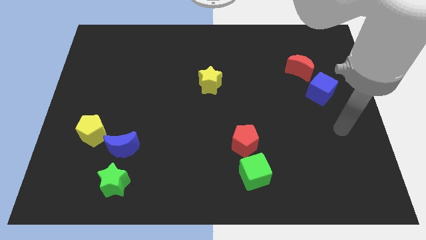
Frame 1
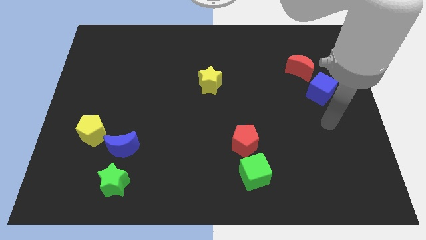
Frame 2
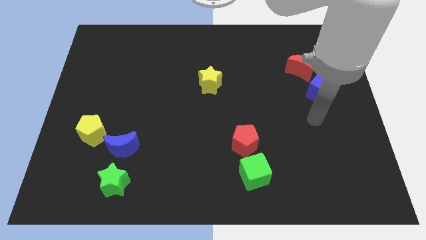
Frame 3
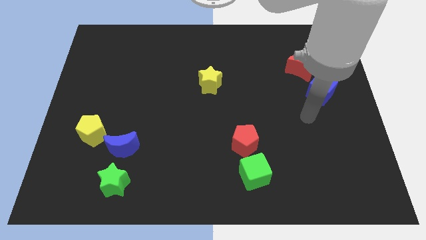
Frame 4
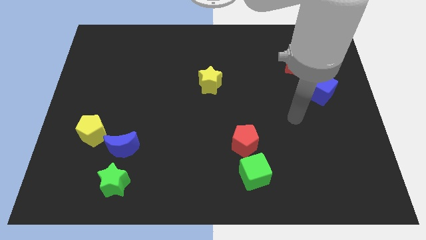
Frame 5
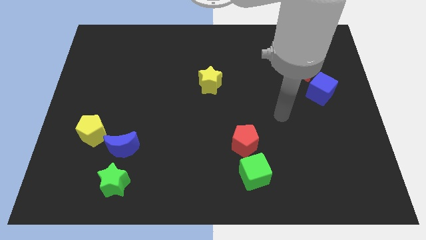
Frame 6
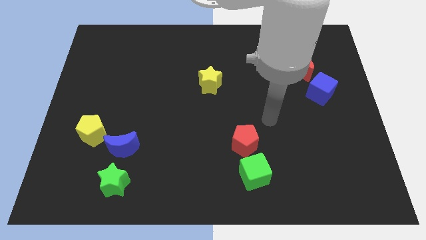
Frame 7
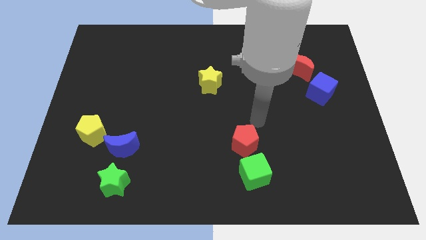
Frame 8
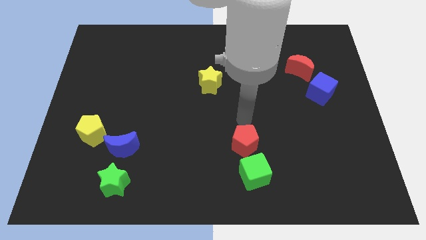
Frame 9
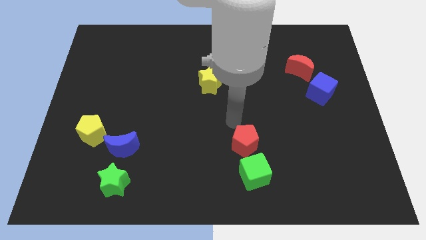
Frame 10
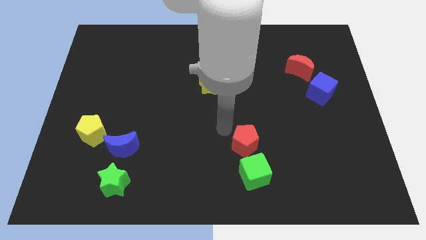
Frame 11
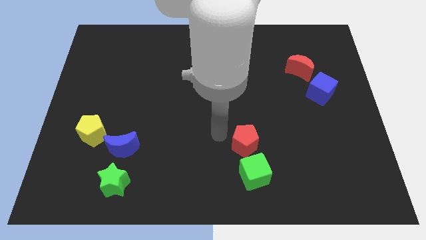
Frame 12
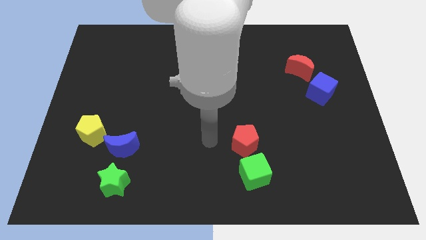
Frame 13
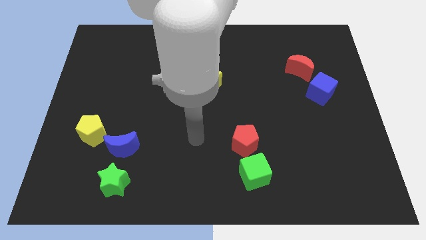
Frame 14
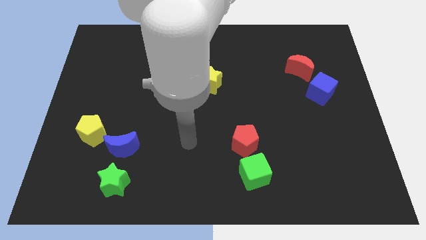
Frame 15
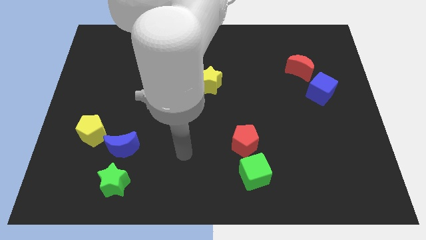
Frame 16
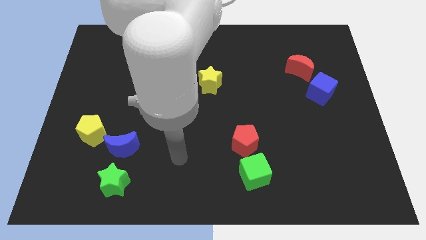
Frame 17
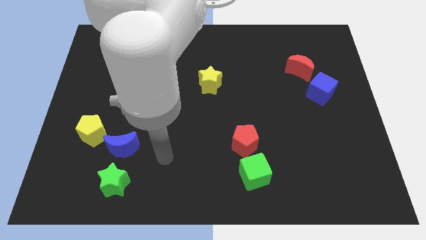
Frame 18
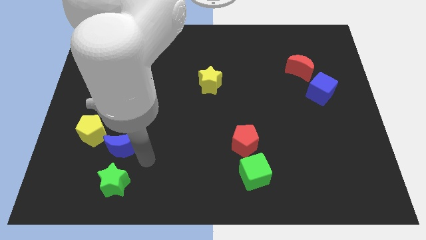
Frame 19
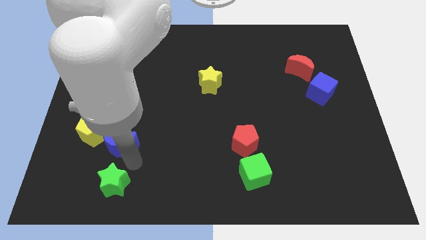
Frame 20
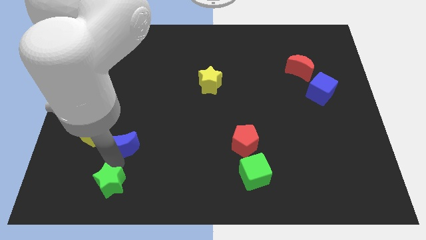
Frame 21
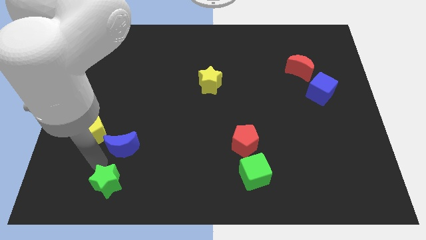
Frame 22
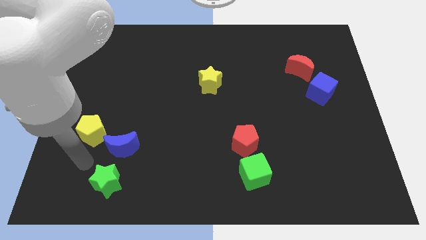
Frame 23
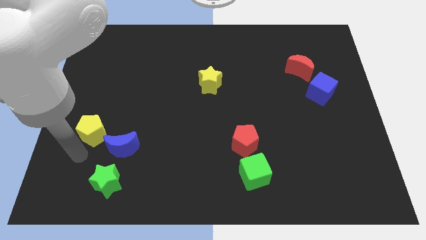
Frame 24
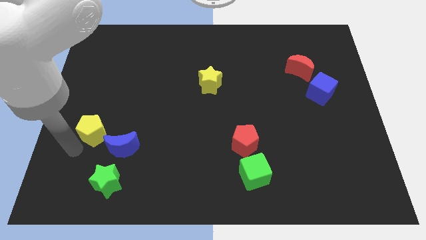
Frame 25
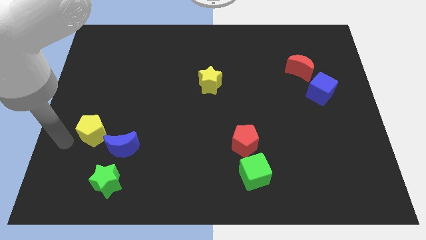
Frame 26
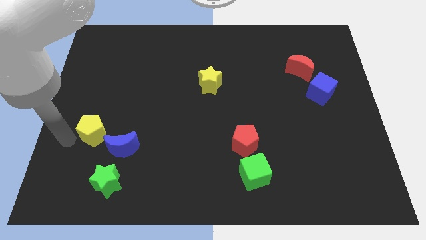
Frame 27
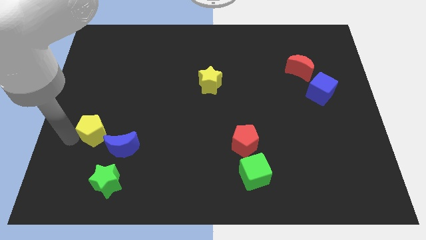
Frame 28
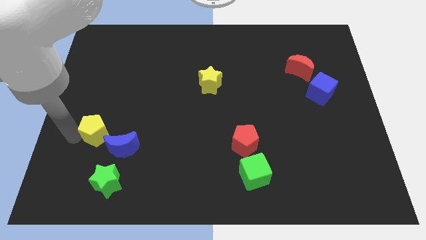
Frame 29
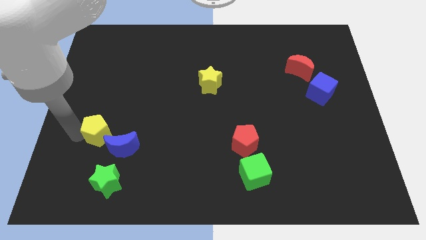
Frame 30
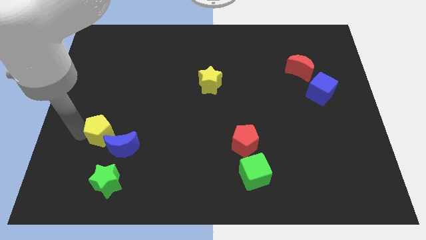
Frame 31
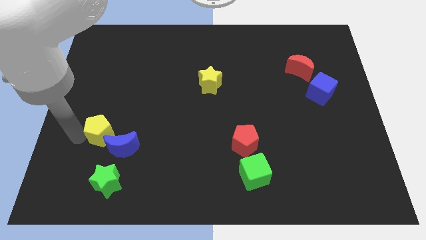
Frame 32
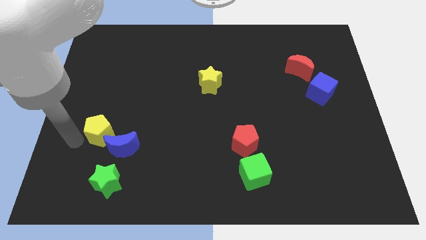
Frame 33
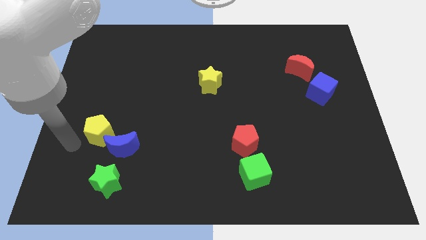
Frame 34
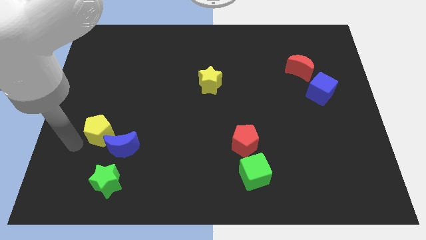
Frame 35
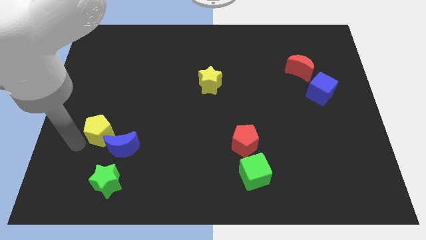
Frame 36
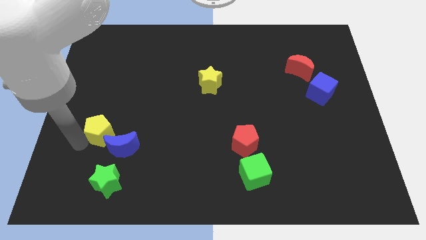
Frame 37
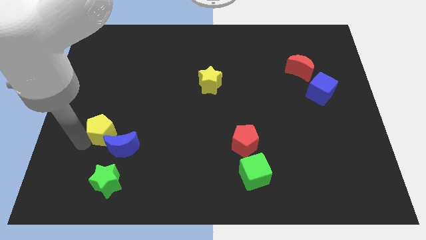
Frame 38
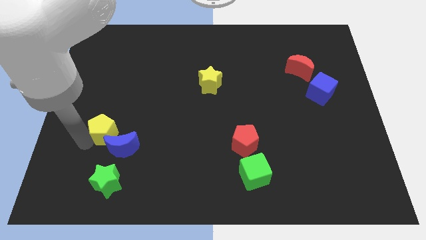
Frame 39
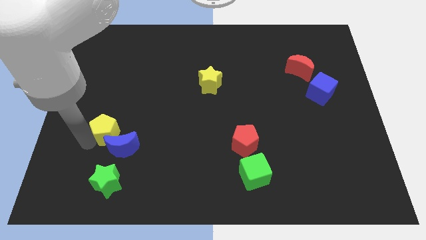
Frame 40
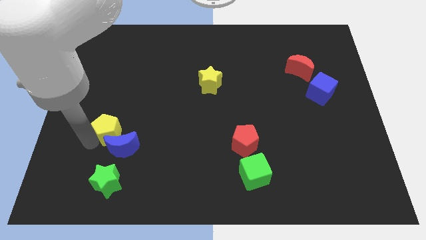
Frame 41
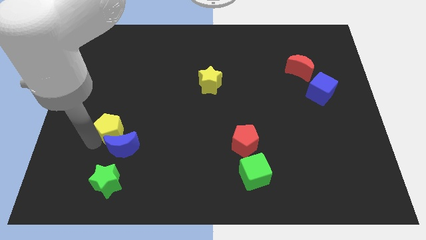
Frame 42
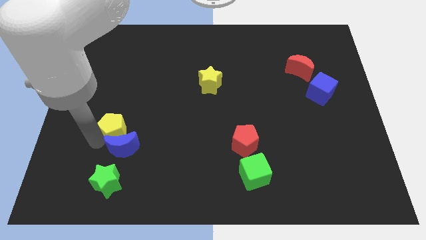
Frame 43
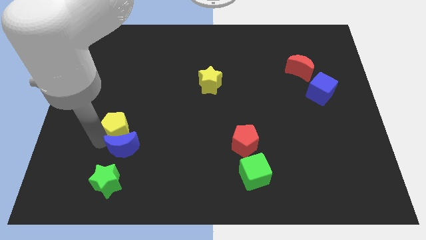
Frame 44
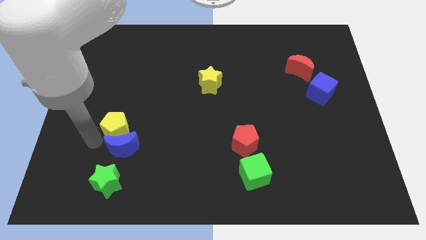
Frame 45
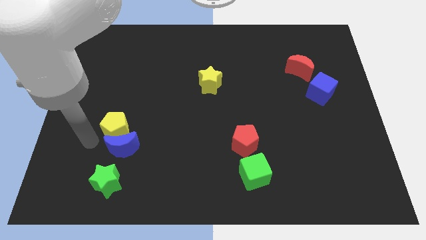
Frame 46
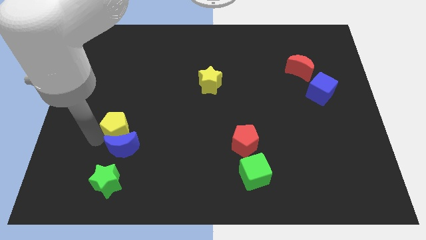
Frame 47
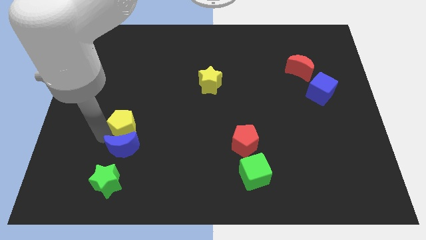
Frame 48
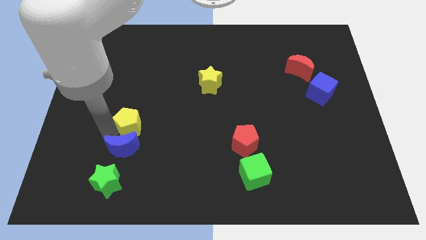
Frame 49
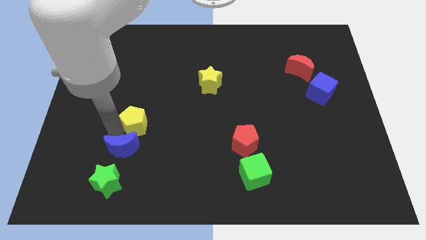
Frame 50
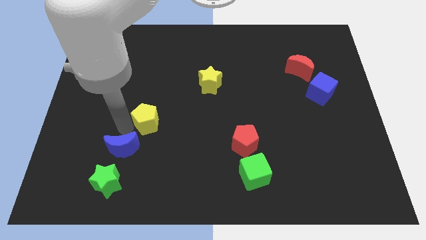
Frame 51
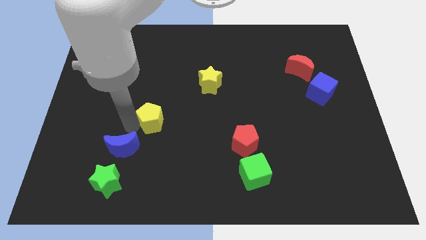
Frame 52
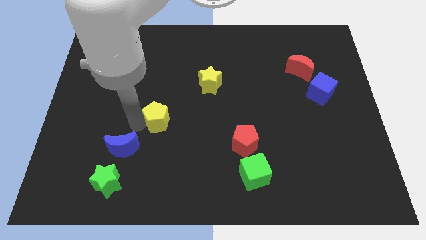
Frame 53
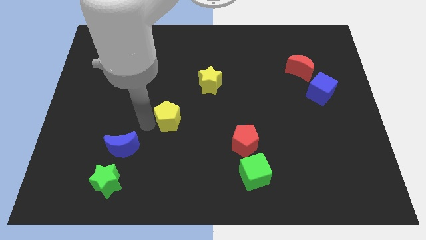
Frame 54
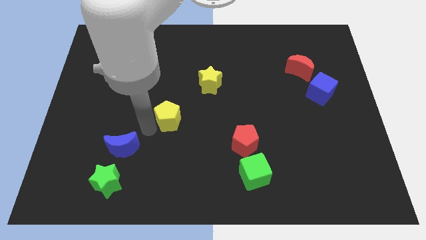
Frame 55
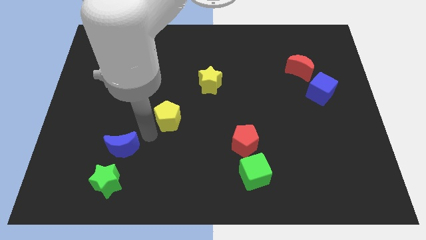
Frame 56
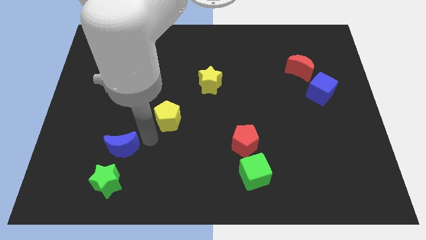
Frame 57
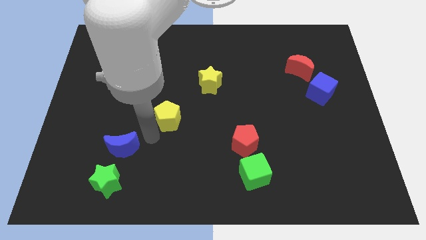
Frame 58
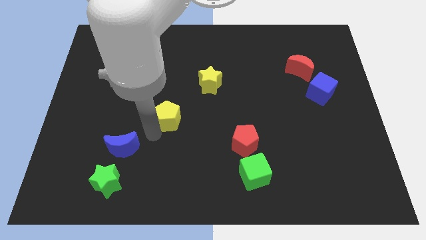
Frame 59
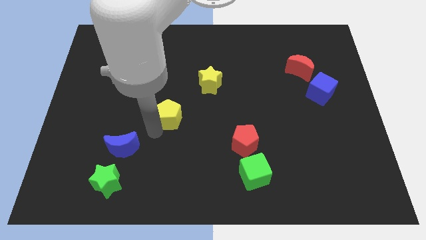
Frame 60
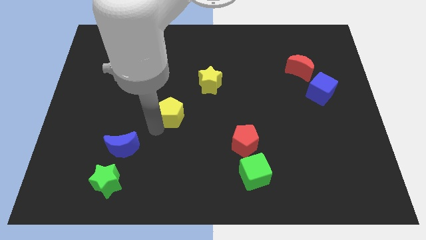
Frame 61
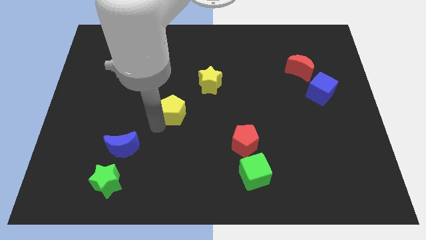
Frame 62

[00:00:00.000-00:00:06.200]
push the yellow pentagon diagonally down and to the left of the yellow star

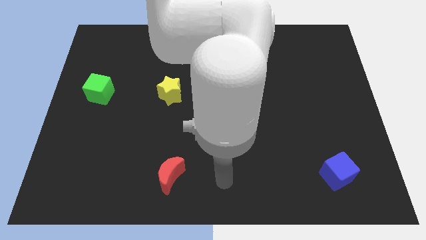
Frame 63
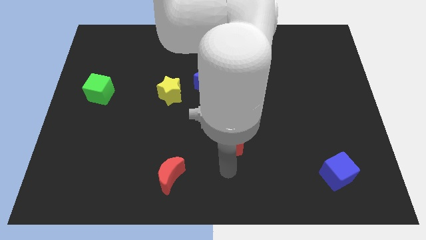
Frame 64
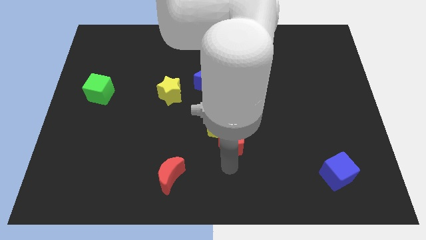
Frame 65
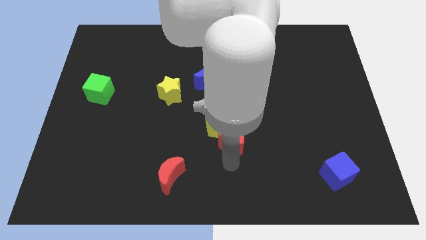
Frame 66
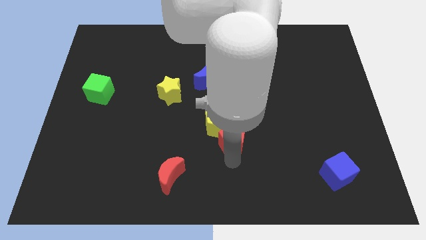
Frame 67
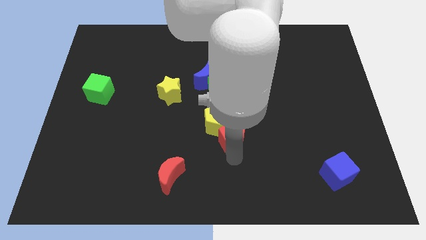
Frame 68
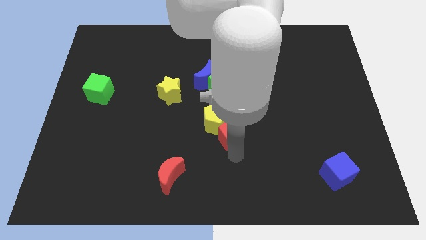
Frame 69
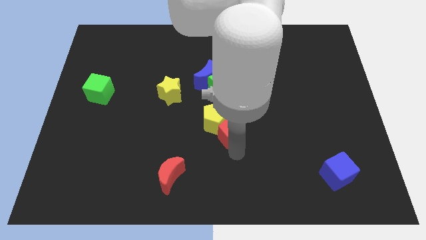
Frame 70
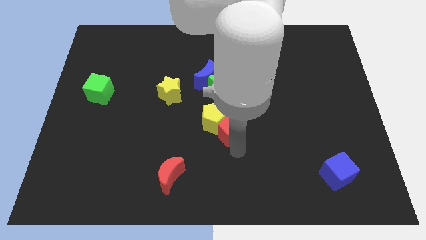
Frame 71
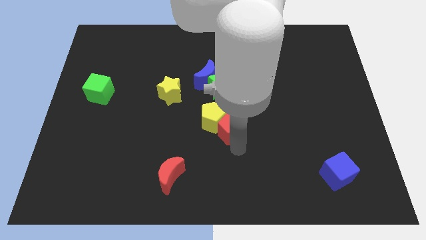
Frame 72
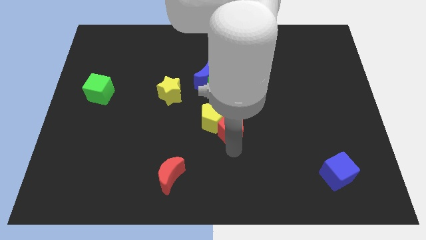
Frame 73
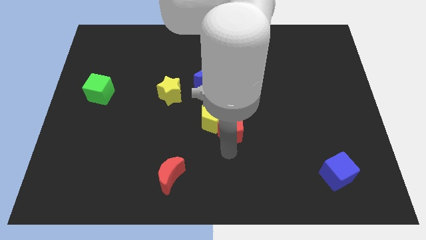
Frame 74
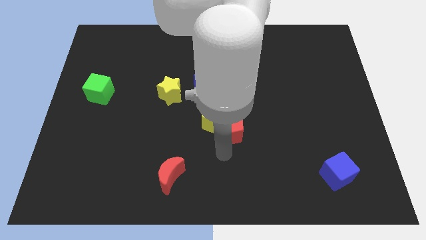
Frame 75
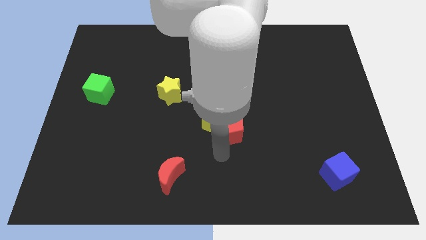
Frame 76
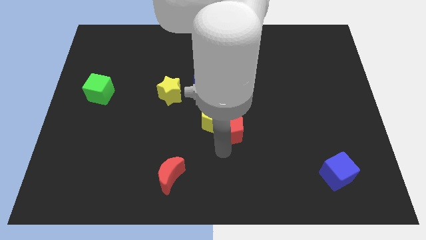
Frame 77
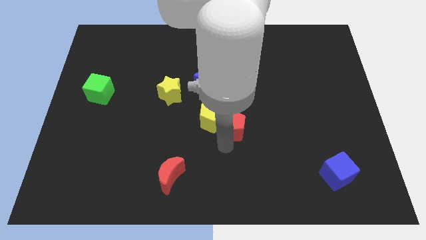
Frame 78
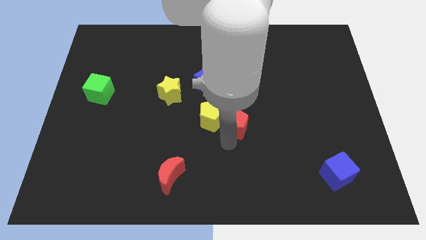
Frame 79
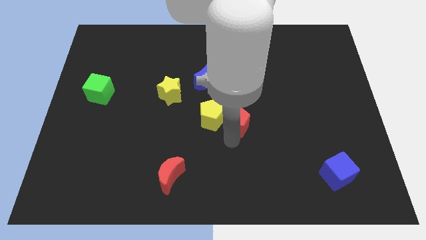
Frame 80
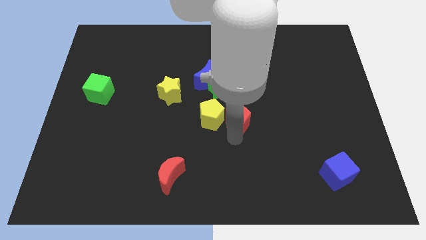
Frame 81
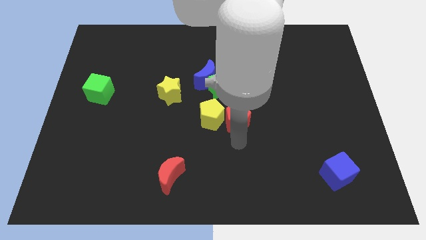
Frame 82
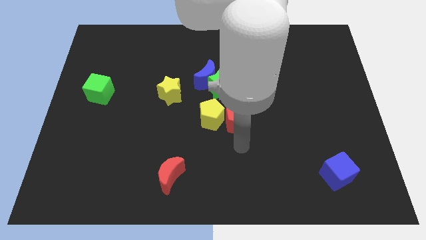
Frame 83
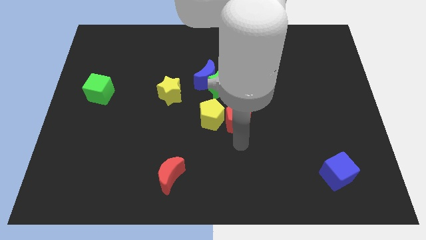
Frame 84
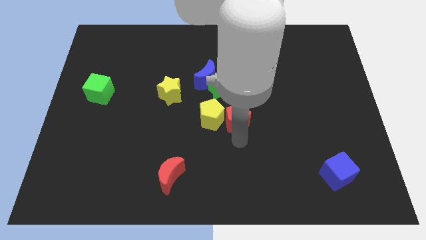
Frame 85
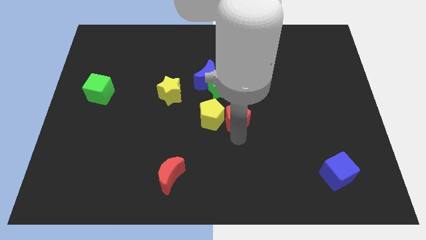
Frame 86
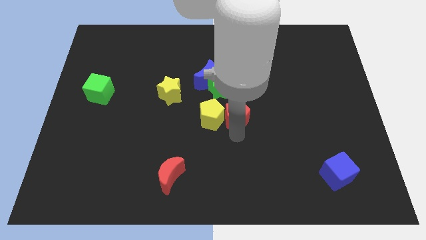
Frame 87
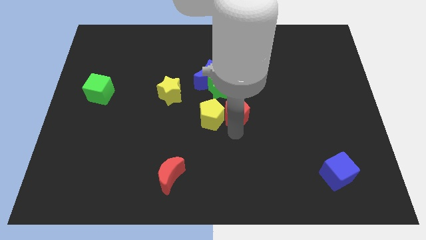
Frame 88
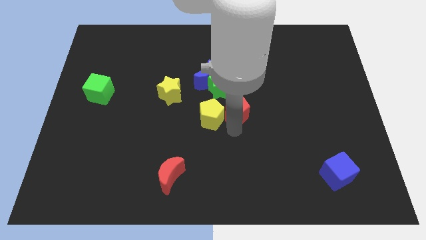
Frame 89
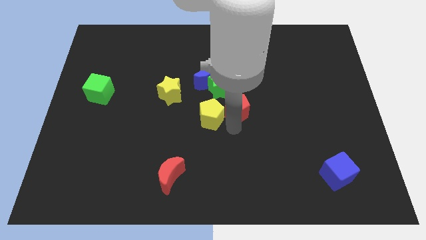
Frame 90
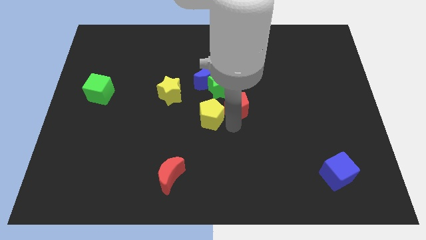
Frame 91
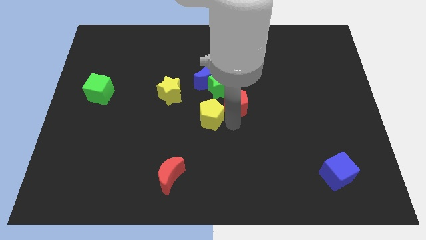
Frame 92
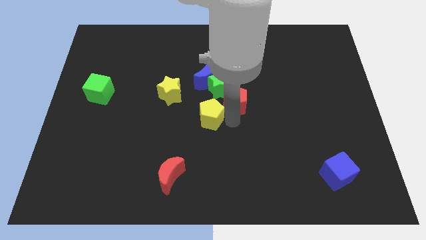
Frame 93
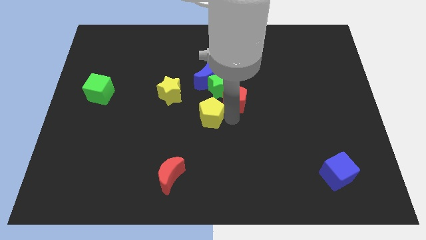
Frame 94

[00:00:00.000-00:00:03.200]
put the red pentagon to the right side of the yellow star
